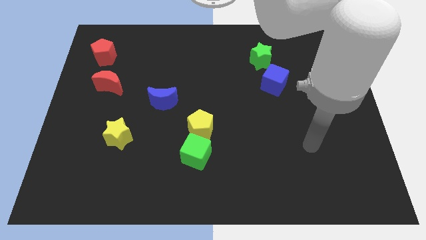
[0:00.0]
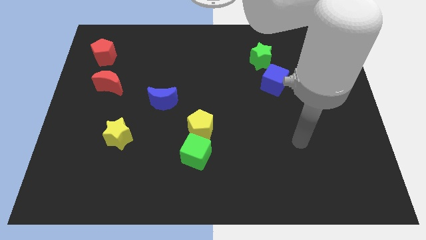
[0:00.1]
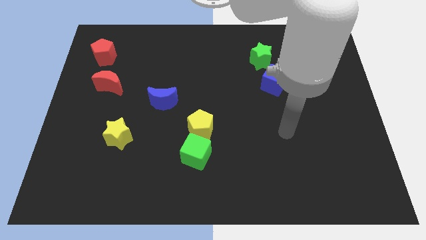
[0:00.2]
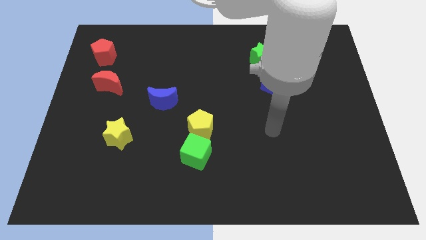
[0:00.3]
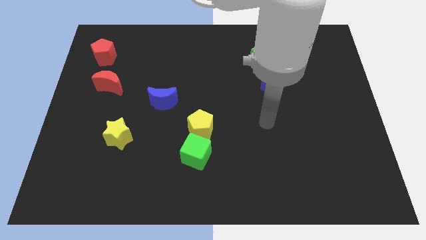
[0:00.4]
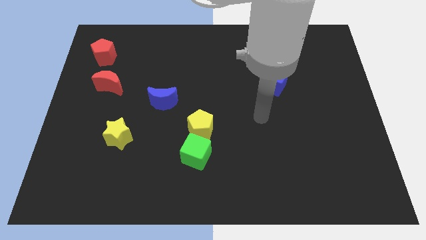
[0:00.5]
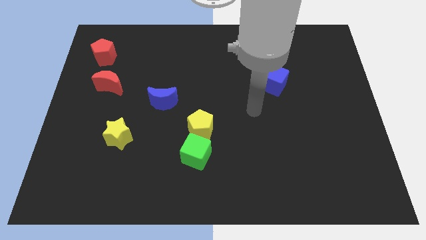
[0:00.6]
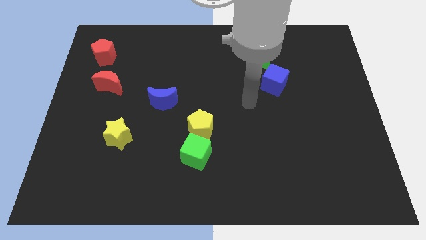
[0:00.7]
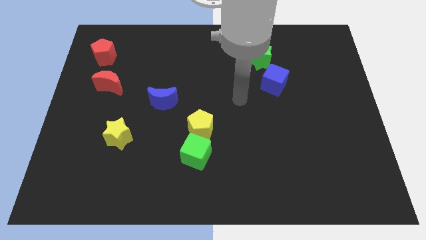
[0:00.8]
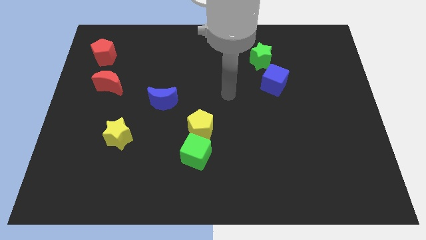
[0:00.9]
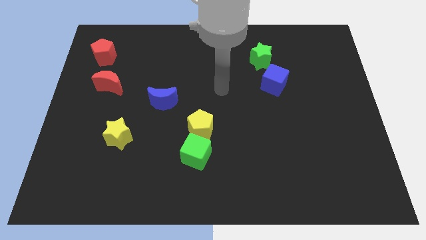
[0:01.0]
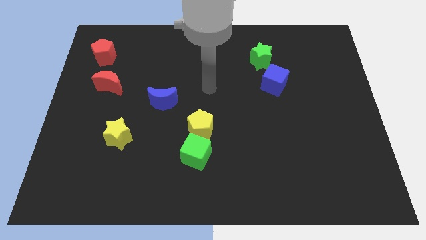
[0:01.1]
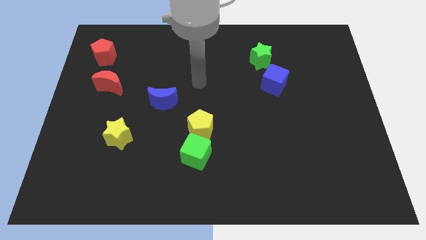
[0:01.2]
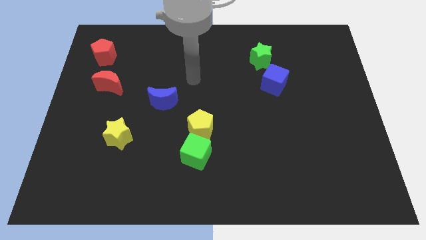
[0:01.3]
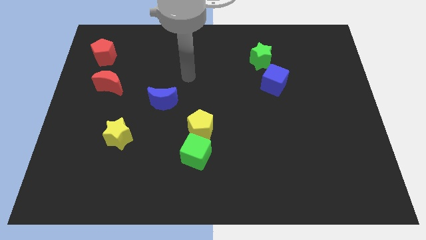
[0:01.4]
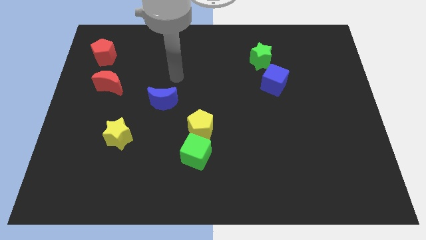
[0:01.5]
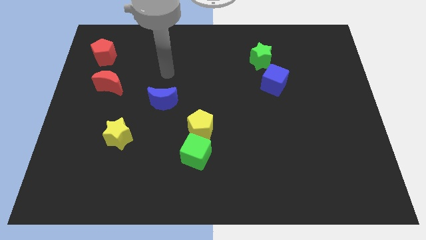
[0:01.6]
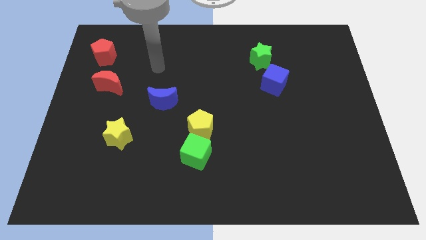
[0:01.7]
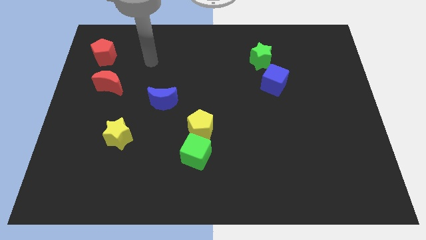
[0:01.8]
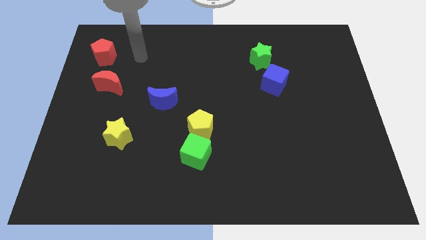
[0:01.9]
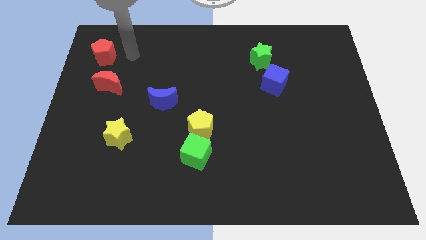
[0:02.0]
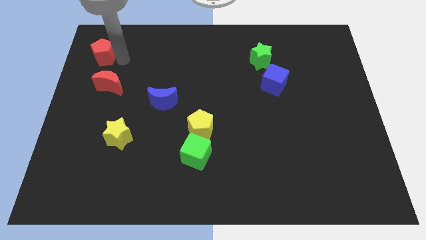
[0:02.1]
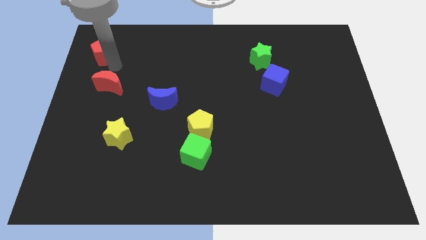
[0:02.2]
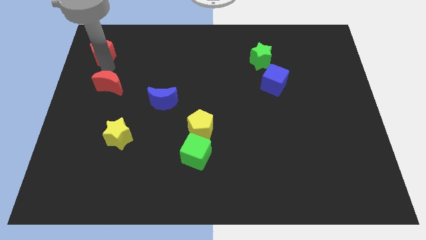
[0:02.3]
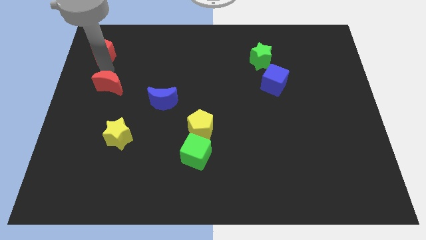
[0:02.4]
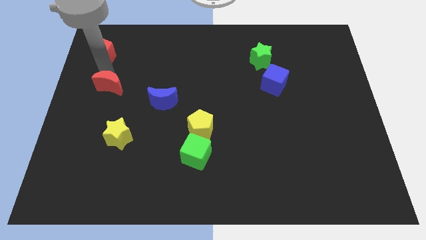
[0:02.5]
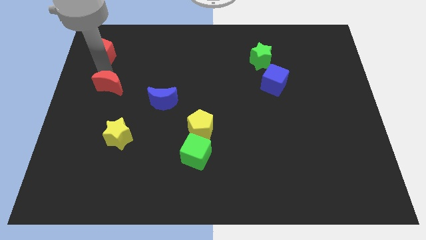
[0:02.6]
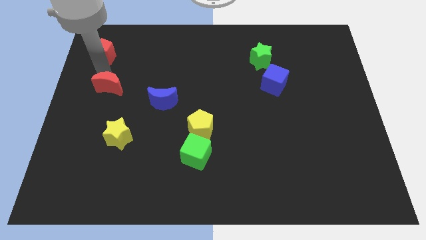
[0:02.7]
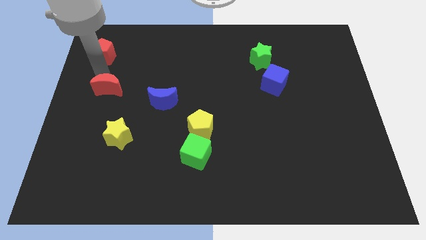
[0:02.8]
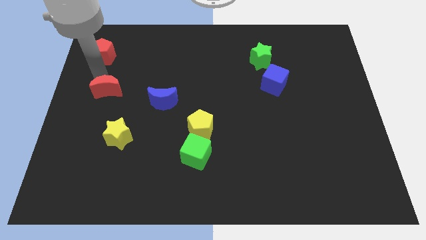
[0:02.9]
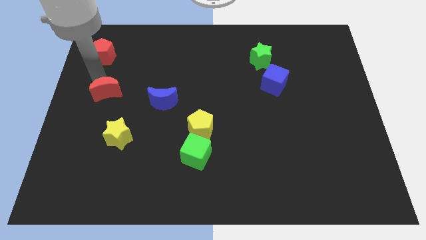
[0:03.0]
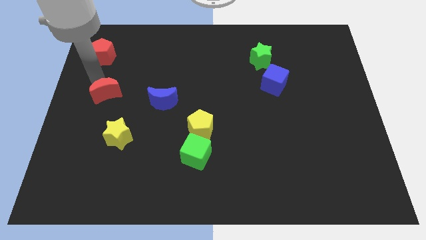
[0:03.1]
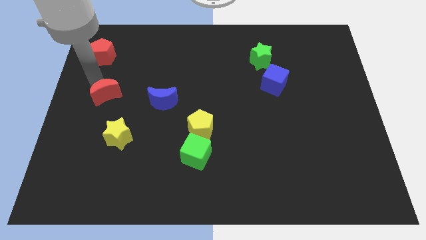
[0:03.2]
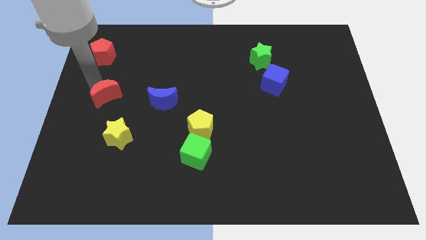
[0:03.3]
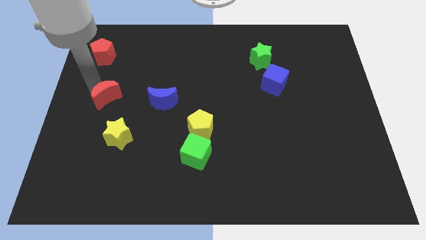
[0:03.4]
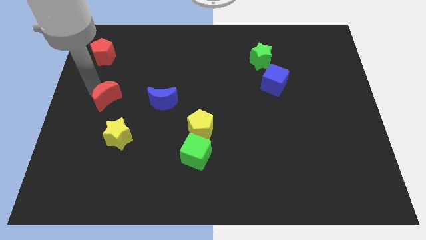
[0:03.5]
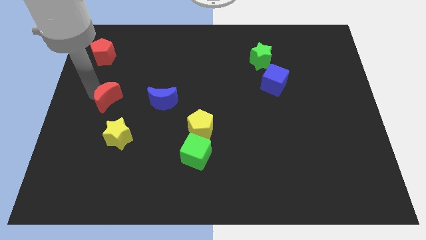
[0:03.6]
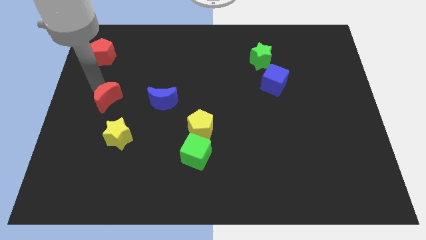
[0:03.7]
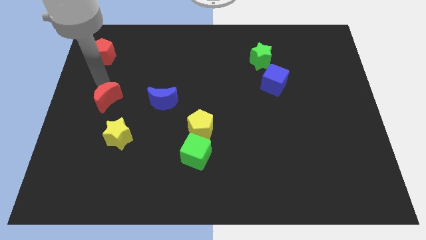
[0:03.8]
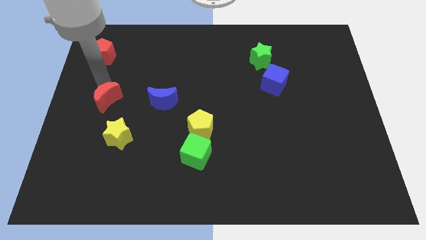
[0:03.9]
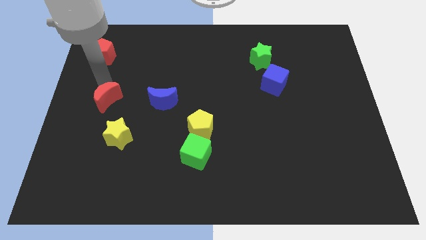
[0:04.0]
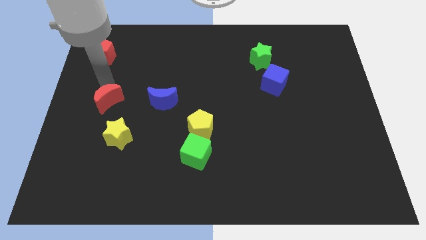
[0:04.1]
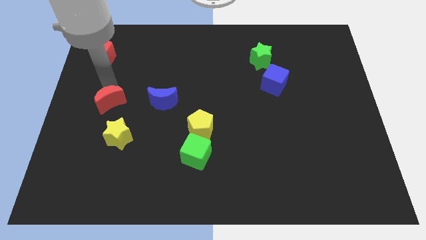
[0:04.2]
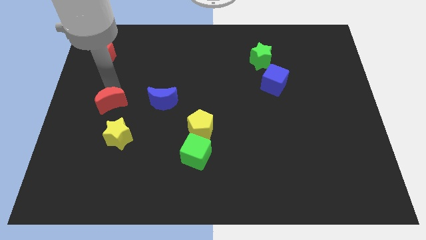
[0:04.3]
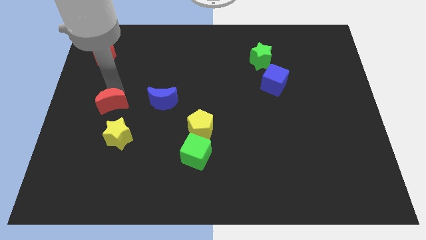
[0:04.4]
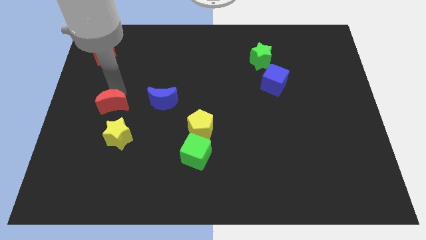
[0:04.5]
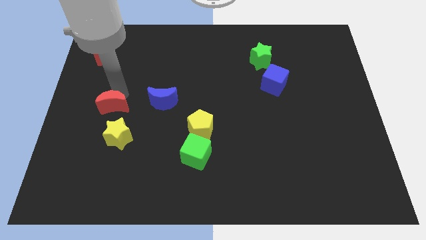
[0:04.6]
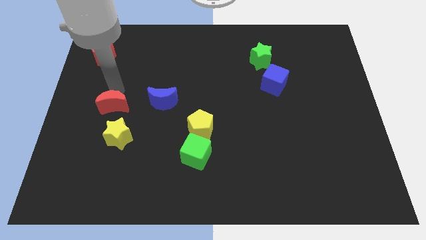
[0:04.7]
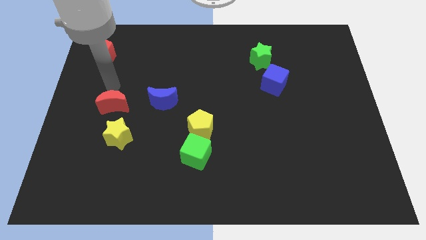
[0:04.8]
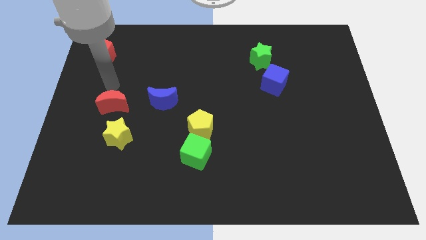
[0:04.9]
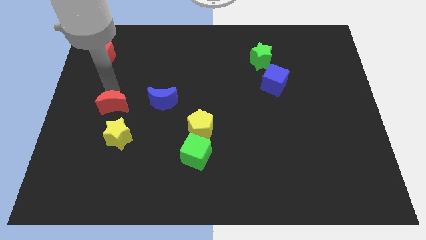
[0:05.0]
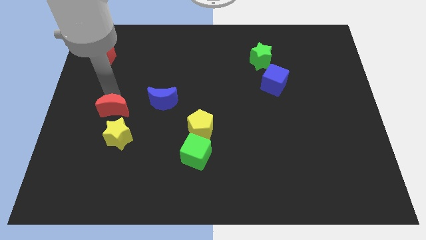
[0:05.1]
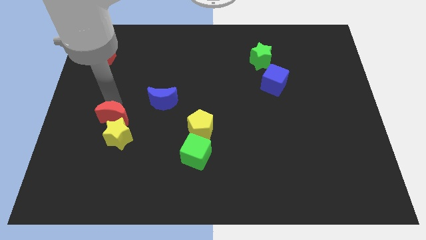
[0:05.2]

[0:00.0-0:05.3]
push the red moon to the yellow star

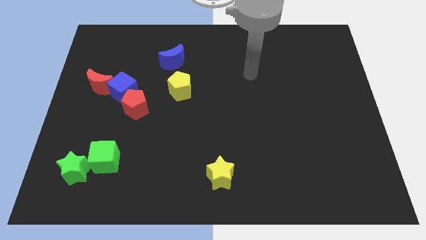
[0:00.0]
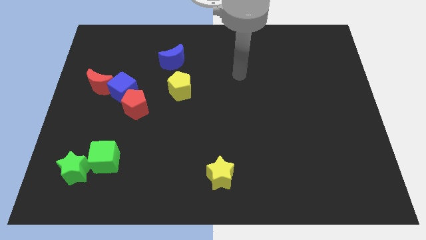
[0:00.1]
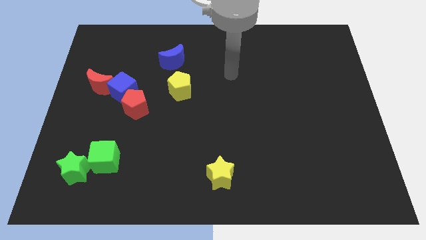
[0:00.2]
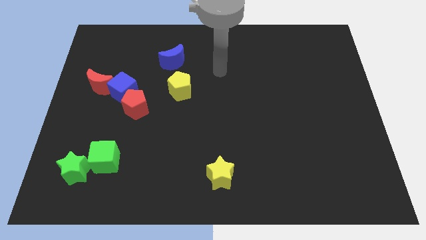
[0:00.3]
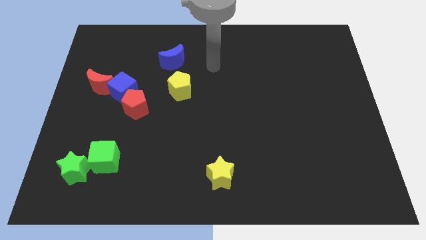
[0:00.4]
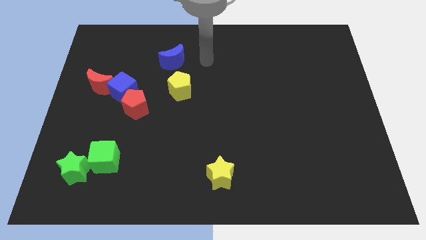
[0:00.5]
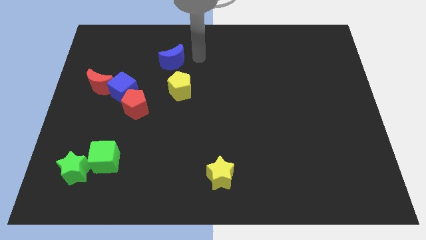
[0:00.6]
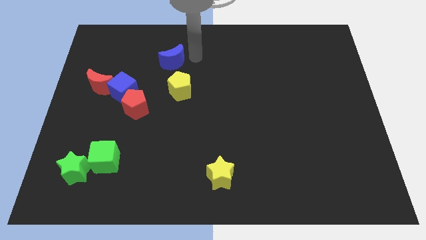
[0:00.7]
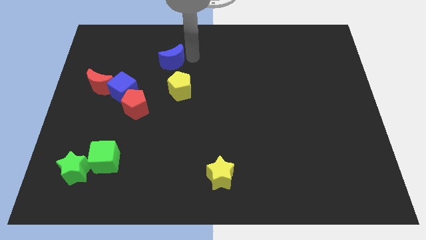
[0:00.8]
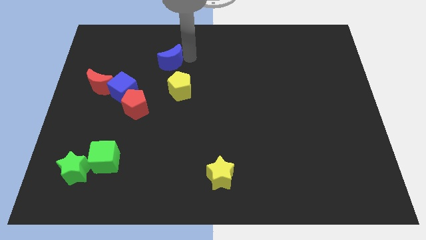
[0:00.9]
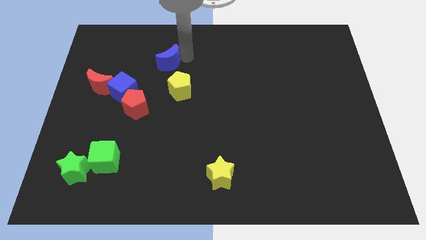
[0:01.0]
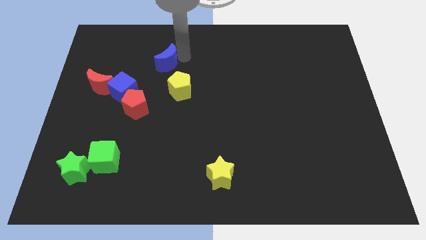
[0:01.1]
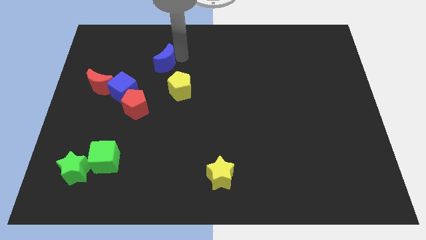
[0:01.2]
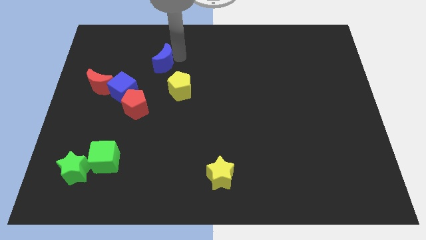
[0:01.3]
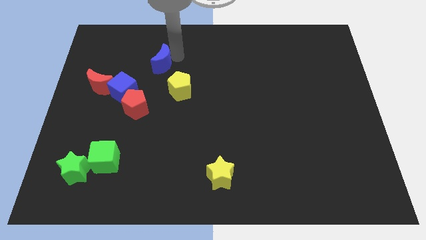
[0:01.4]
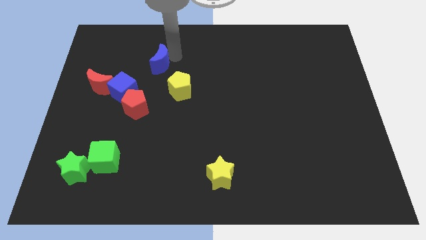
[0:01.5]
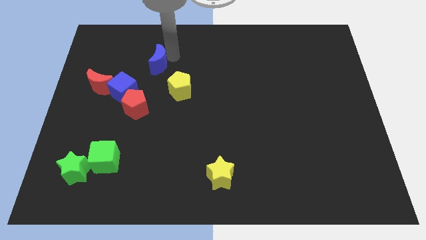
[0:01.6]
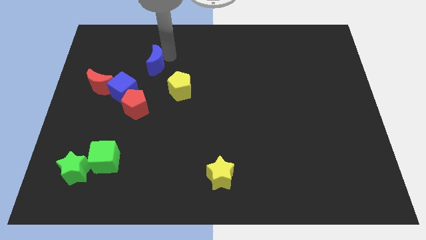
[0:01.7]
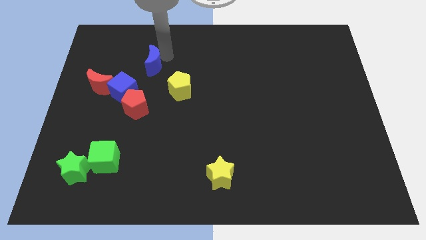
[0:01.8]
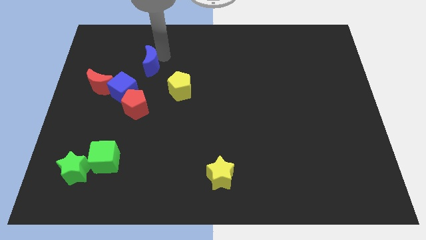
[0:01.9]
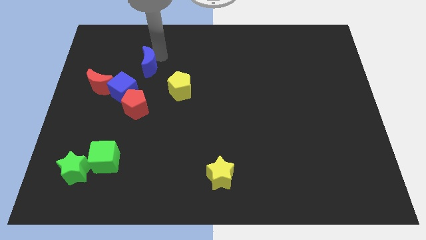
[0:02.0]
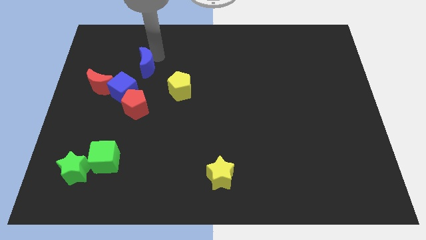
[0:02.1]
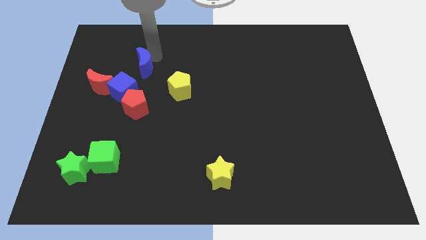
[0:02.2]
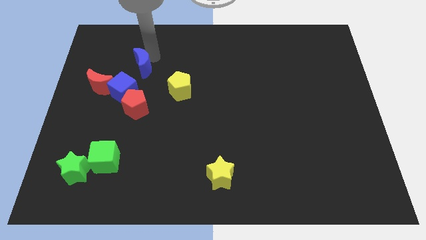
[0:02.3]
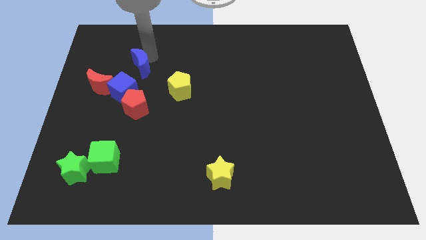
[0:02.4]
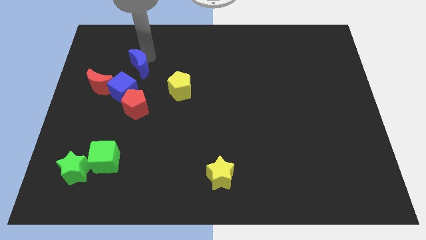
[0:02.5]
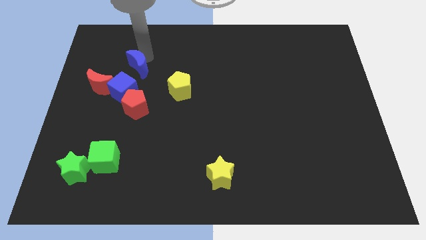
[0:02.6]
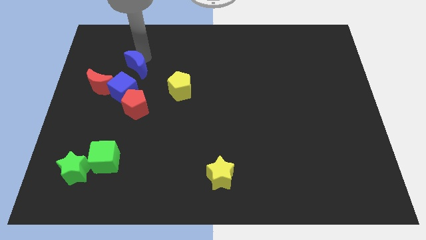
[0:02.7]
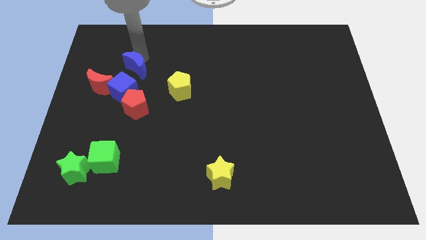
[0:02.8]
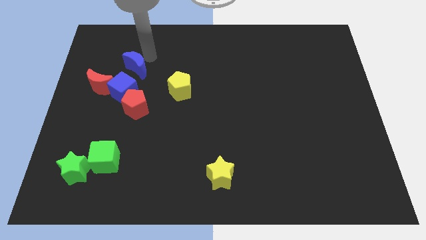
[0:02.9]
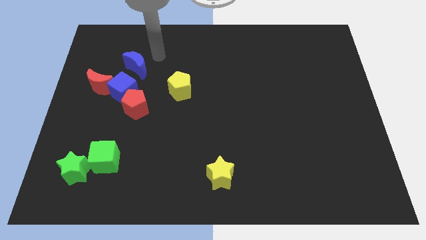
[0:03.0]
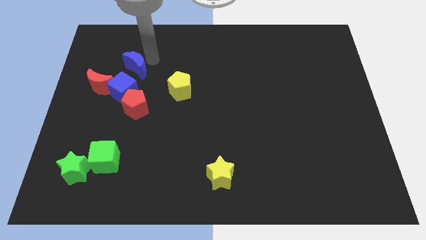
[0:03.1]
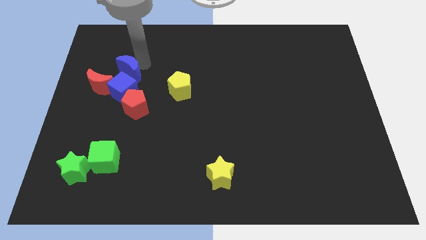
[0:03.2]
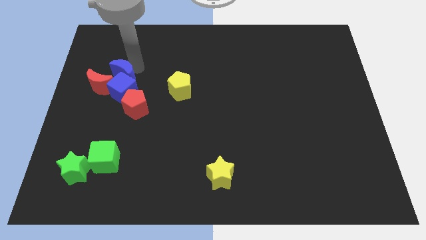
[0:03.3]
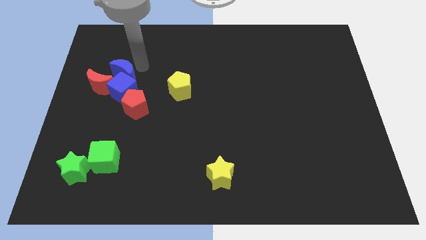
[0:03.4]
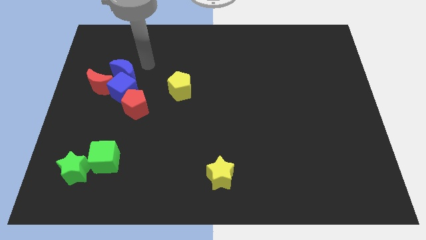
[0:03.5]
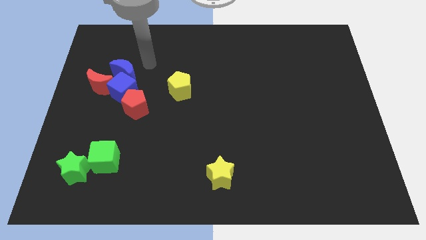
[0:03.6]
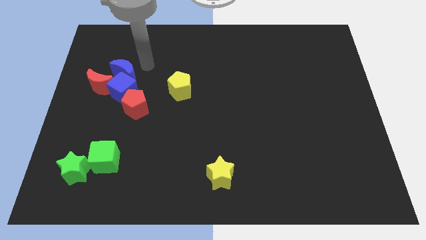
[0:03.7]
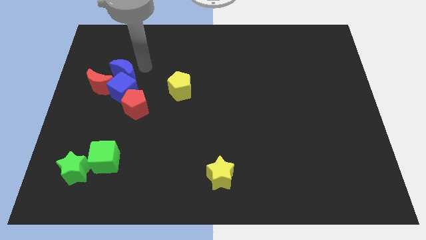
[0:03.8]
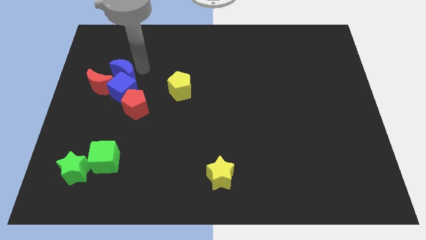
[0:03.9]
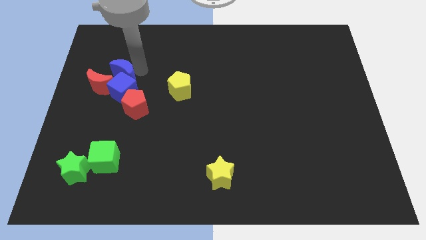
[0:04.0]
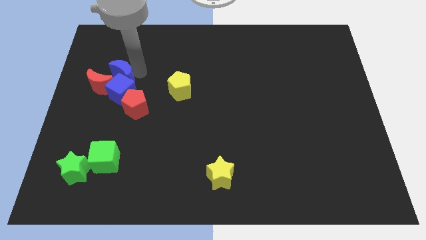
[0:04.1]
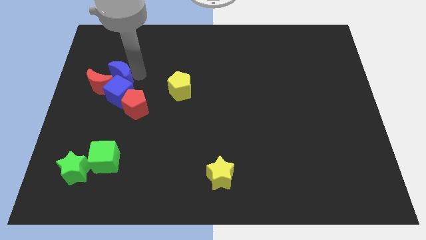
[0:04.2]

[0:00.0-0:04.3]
slide the blue moon towards the red moon
